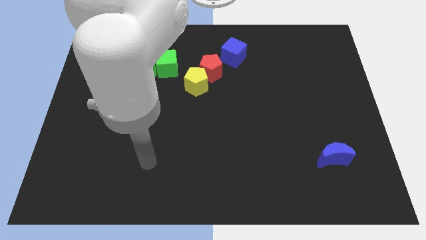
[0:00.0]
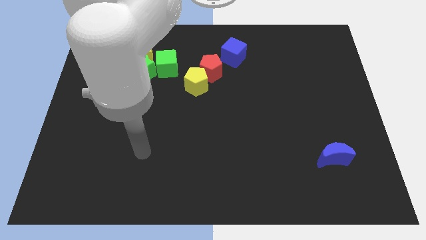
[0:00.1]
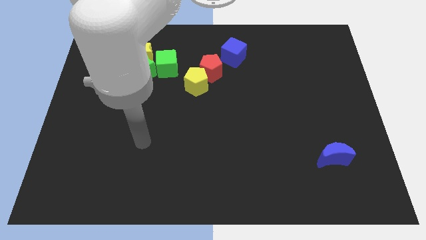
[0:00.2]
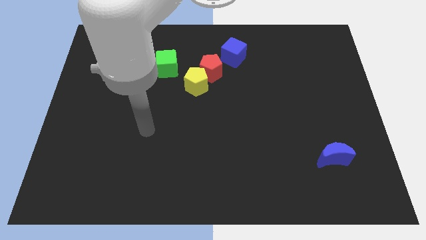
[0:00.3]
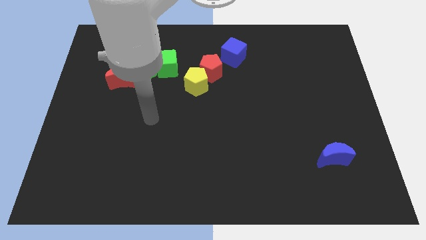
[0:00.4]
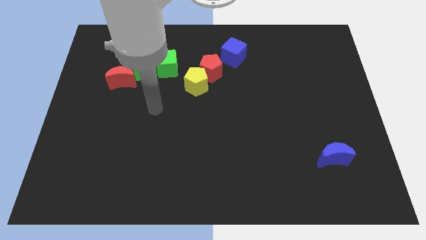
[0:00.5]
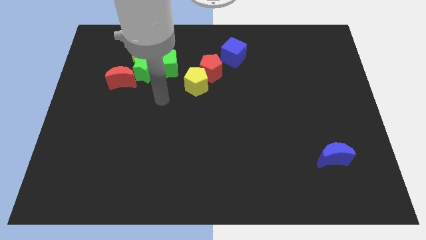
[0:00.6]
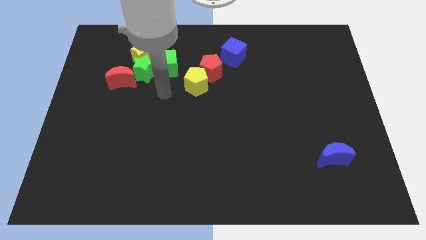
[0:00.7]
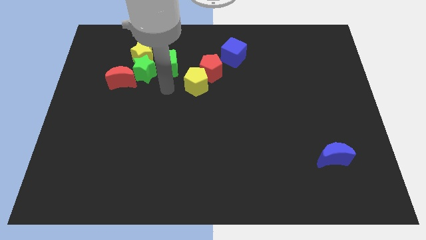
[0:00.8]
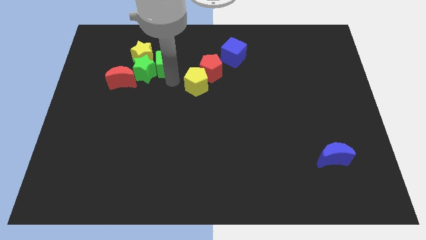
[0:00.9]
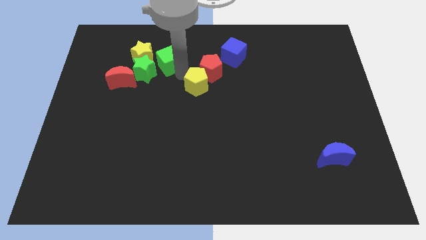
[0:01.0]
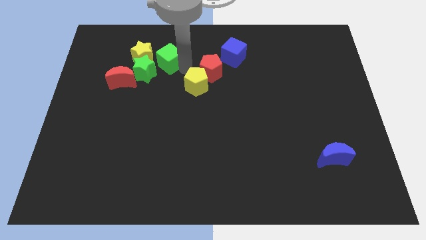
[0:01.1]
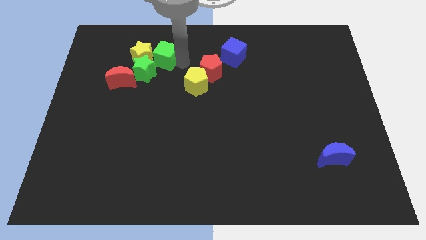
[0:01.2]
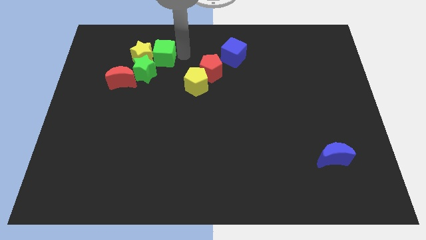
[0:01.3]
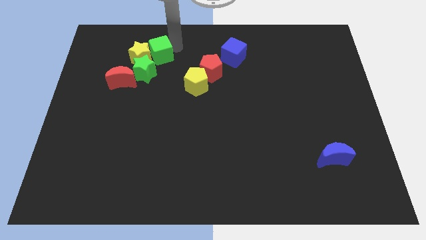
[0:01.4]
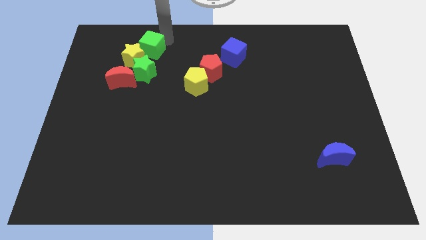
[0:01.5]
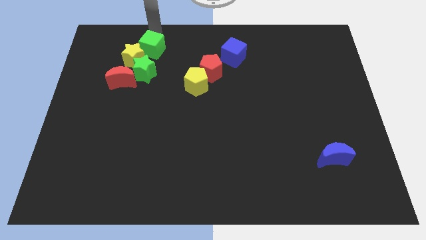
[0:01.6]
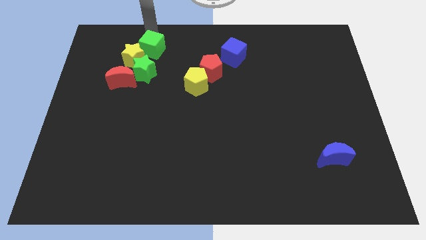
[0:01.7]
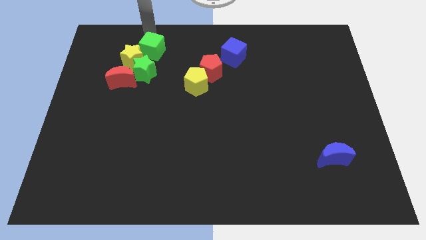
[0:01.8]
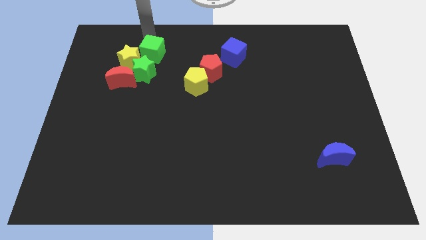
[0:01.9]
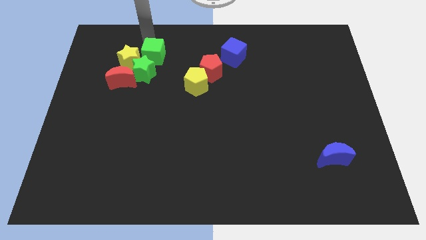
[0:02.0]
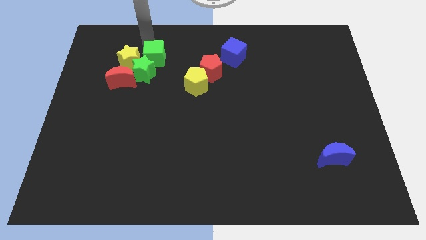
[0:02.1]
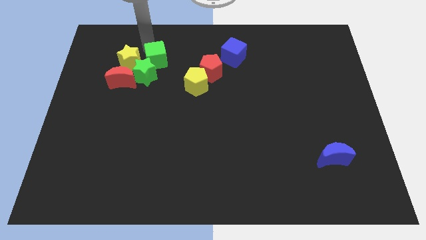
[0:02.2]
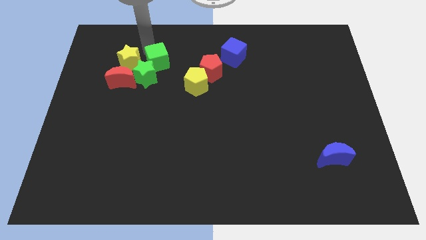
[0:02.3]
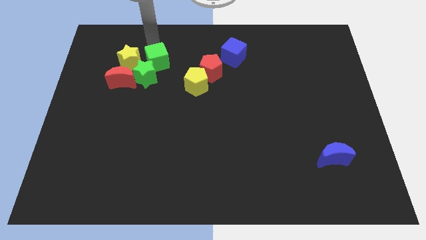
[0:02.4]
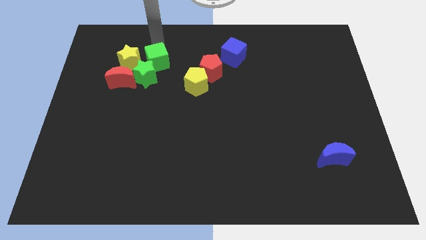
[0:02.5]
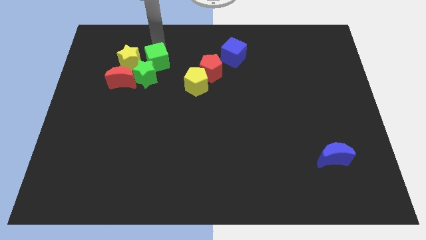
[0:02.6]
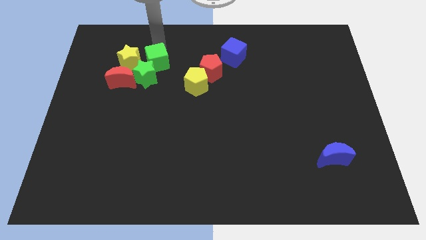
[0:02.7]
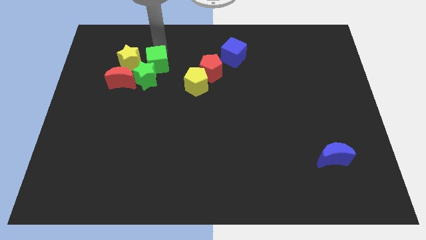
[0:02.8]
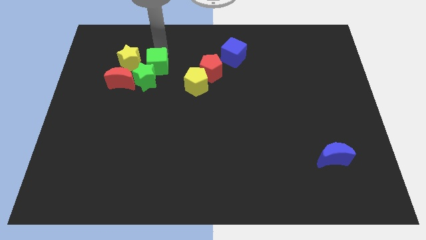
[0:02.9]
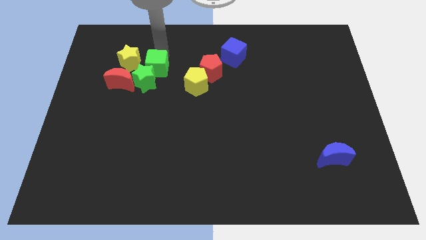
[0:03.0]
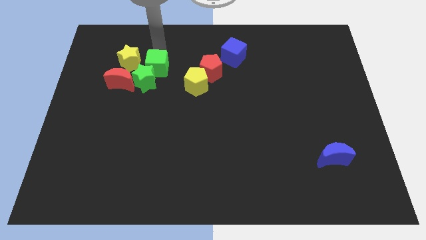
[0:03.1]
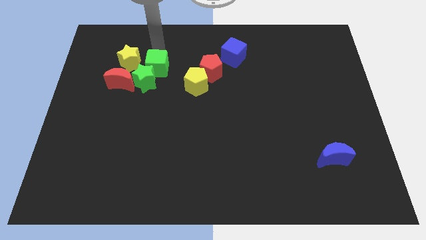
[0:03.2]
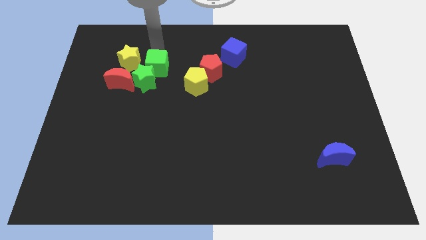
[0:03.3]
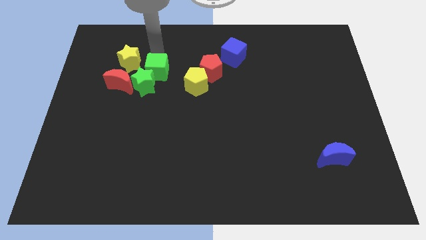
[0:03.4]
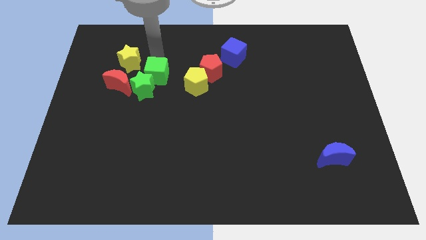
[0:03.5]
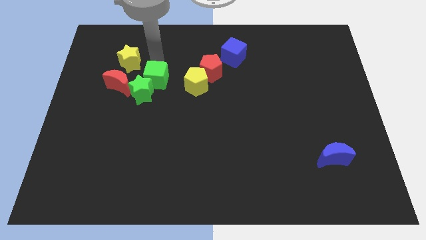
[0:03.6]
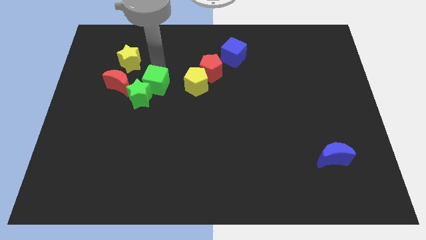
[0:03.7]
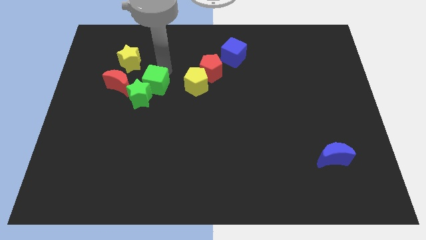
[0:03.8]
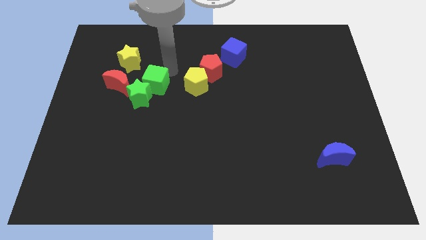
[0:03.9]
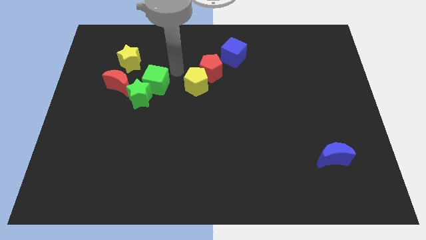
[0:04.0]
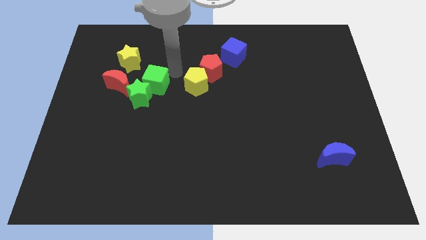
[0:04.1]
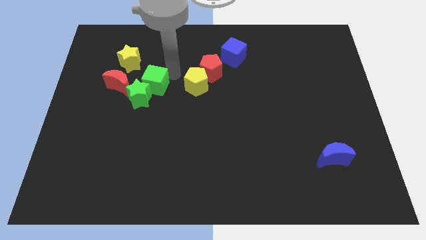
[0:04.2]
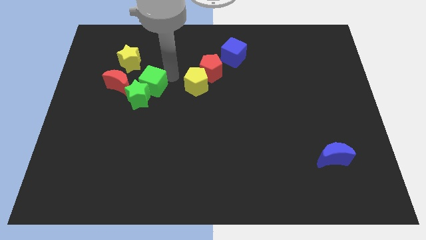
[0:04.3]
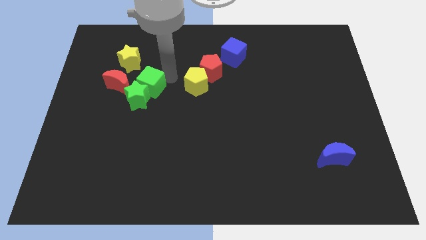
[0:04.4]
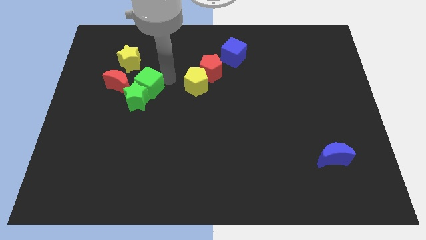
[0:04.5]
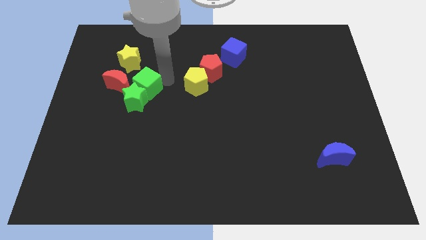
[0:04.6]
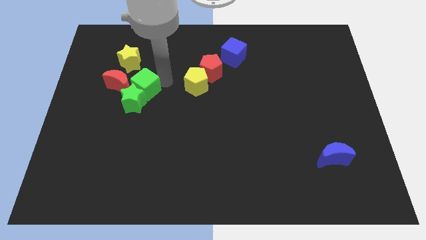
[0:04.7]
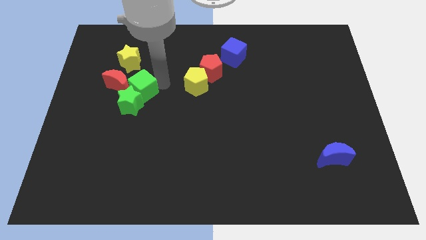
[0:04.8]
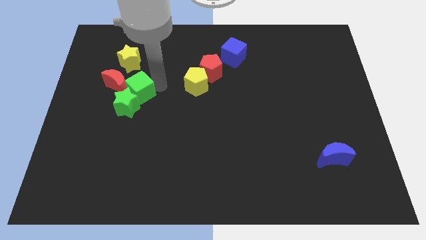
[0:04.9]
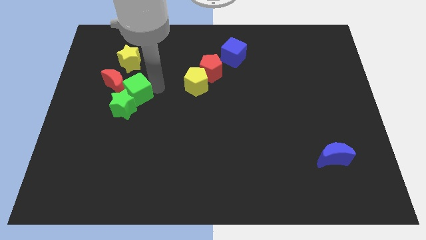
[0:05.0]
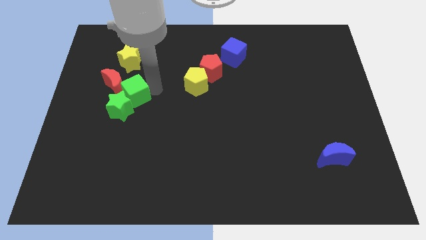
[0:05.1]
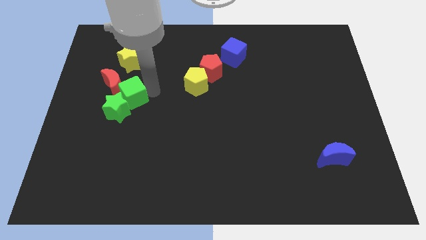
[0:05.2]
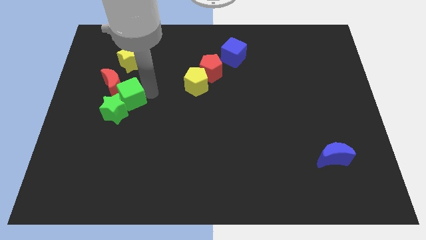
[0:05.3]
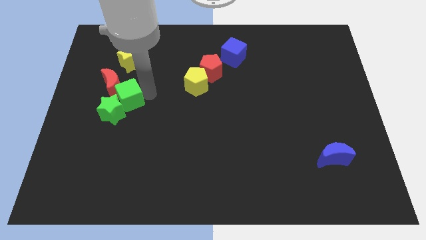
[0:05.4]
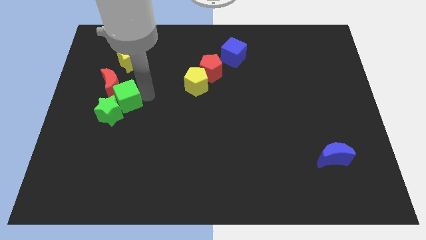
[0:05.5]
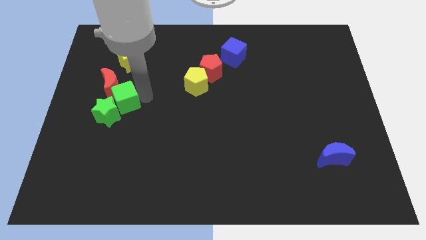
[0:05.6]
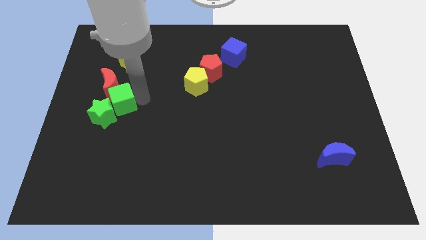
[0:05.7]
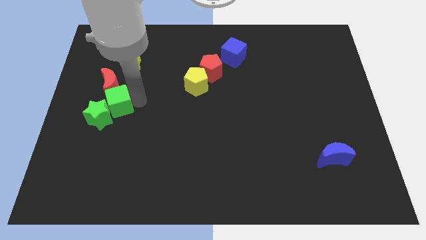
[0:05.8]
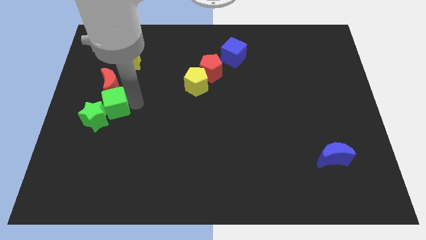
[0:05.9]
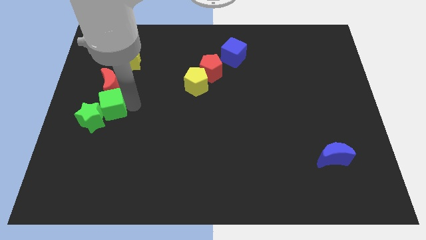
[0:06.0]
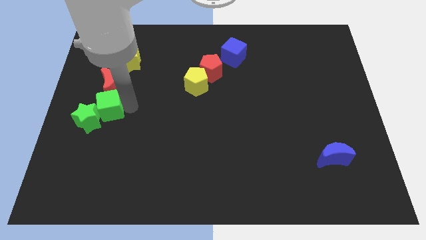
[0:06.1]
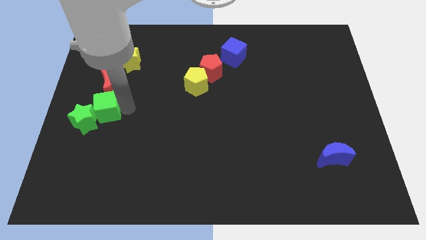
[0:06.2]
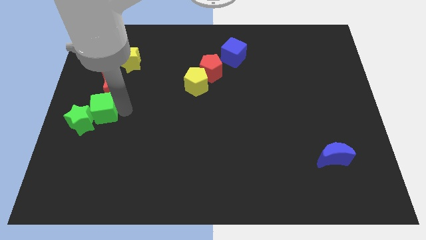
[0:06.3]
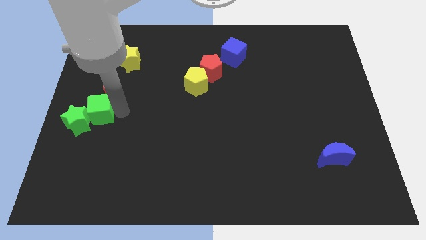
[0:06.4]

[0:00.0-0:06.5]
put the green cube to the bottom left side of the red moon

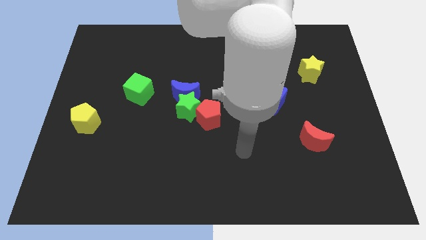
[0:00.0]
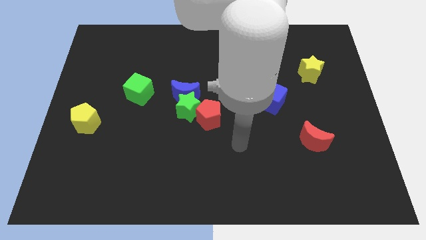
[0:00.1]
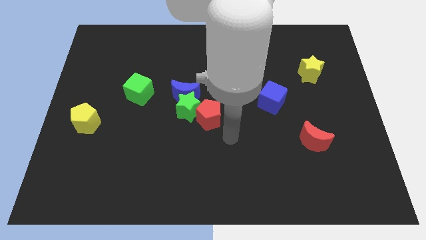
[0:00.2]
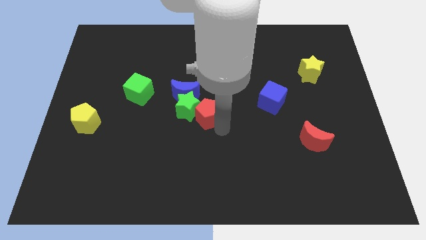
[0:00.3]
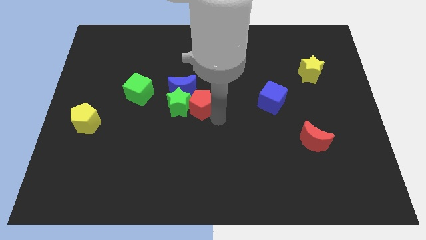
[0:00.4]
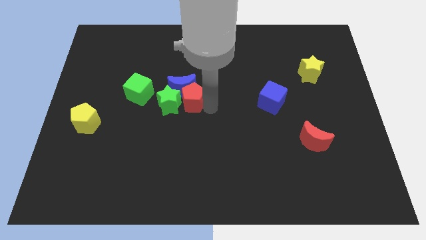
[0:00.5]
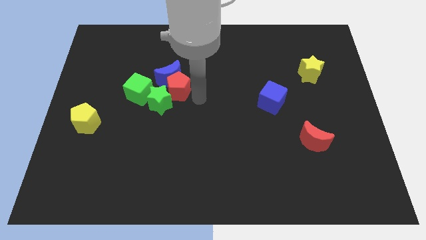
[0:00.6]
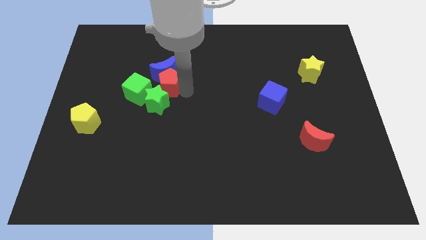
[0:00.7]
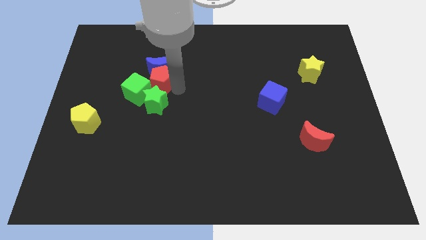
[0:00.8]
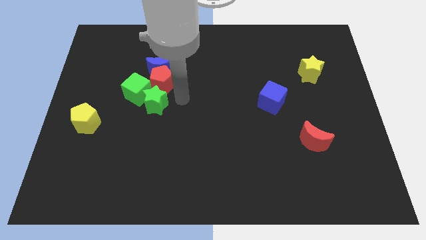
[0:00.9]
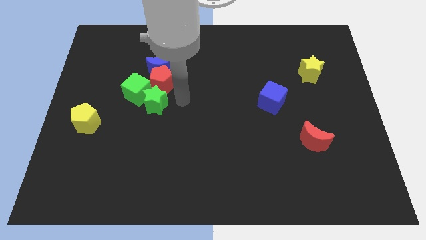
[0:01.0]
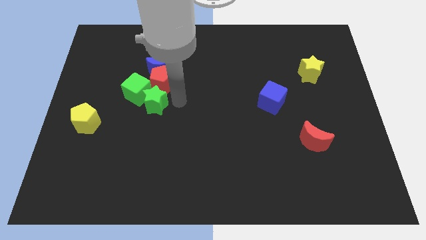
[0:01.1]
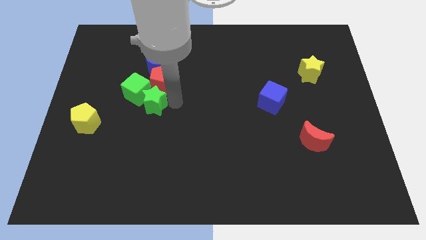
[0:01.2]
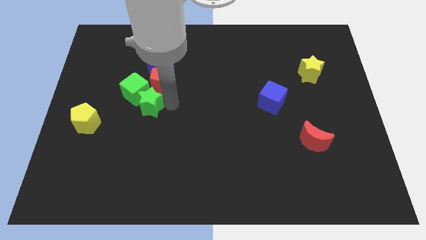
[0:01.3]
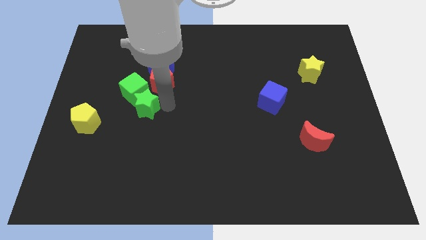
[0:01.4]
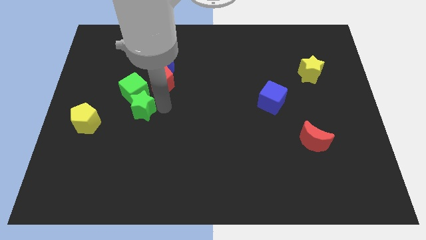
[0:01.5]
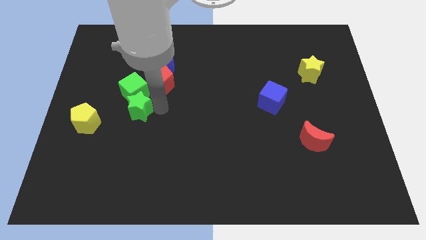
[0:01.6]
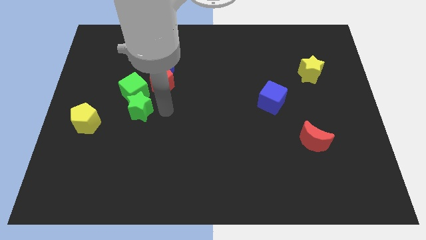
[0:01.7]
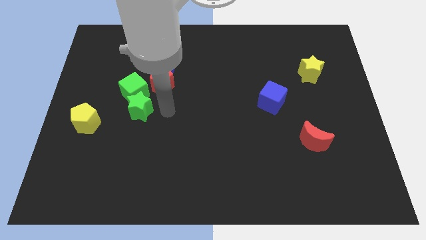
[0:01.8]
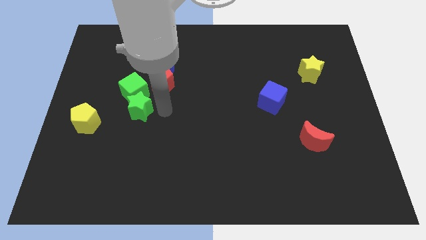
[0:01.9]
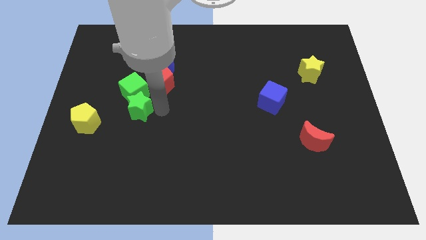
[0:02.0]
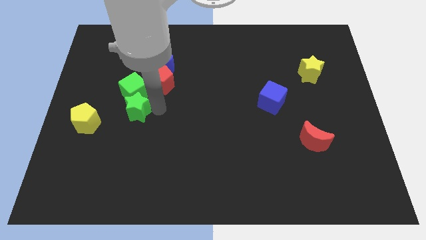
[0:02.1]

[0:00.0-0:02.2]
slide the green star to the bottom left of the green cube
